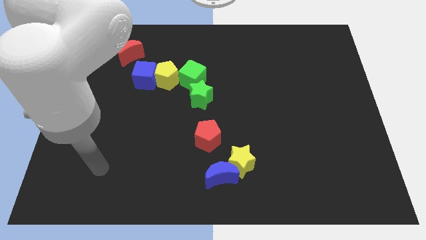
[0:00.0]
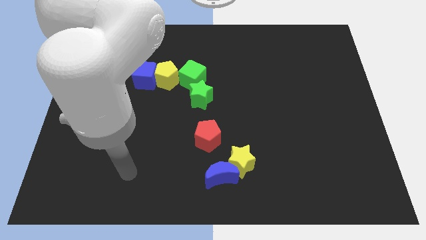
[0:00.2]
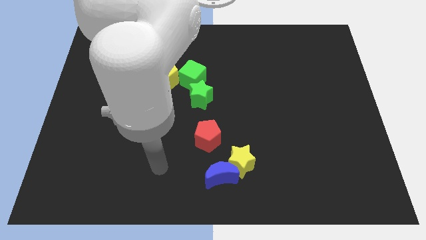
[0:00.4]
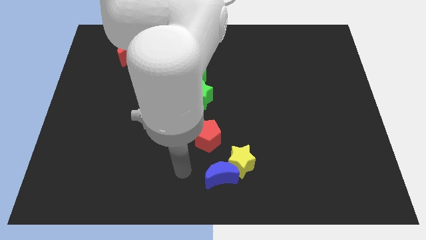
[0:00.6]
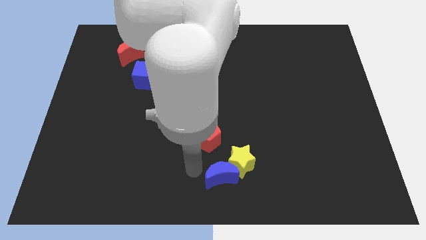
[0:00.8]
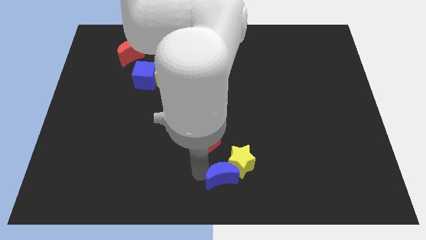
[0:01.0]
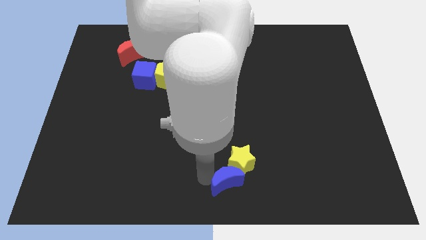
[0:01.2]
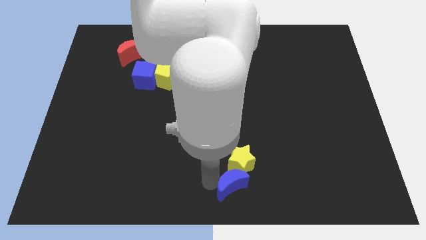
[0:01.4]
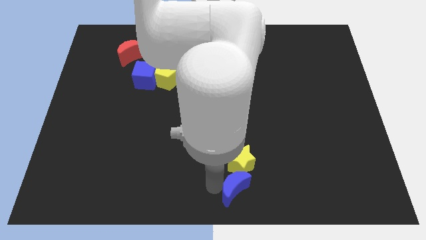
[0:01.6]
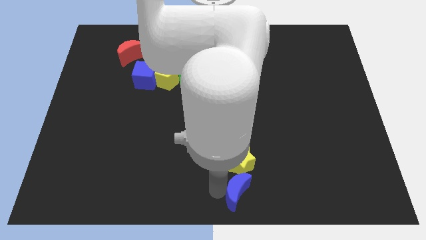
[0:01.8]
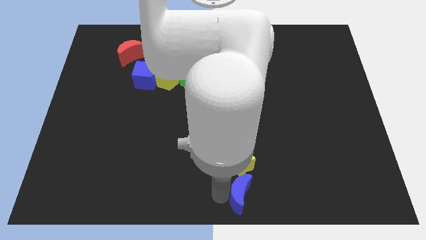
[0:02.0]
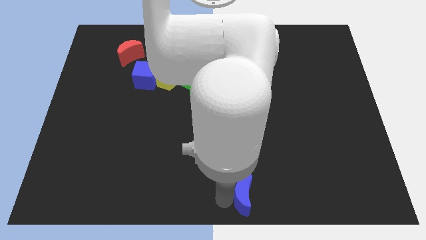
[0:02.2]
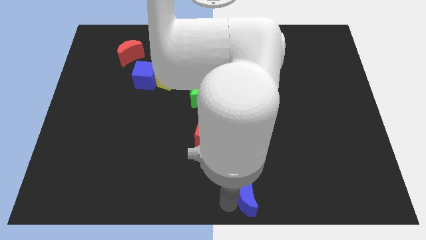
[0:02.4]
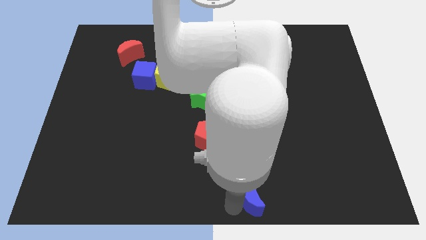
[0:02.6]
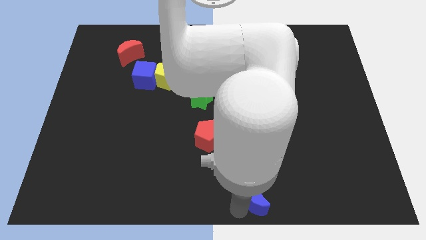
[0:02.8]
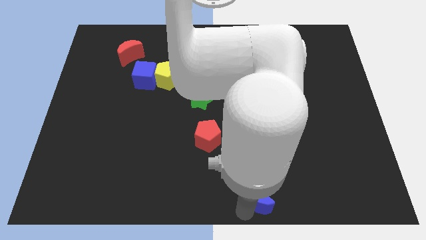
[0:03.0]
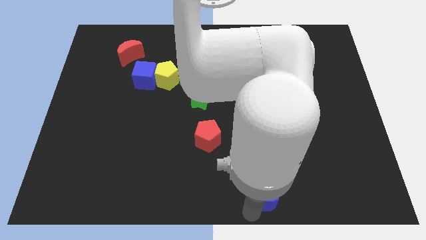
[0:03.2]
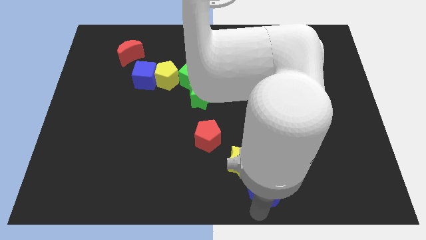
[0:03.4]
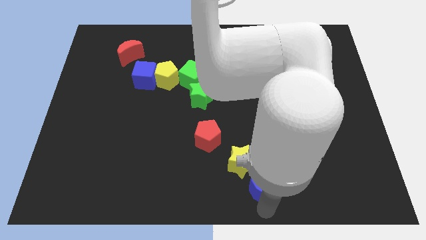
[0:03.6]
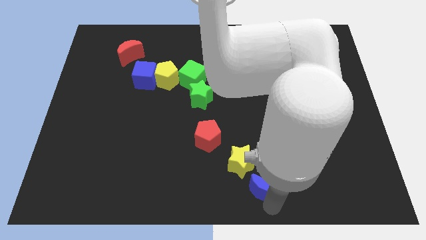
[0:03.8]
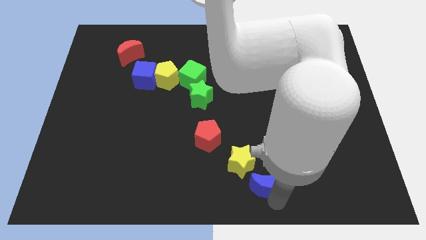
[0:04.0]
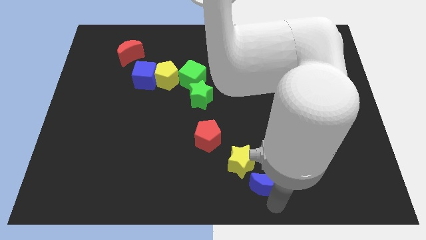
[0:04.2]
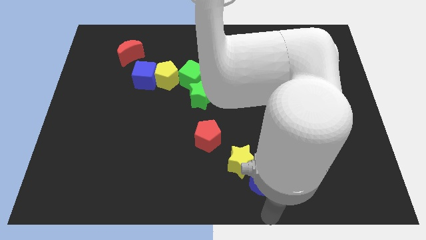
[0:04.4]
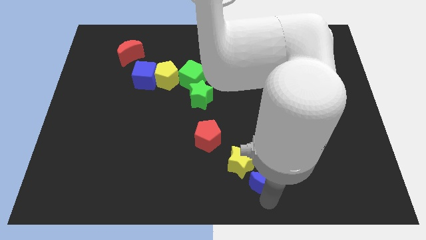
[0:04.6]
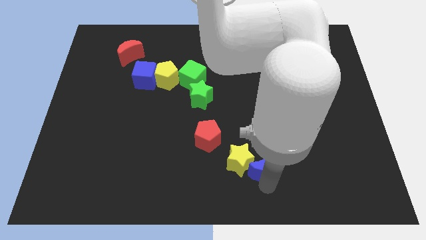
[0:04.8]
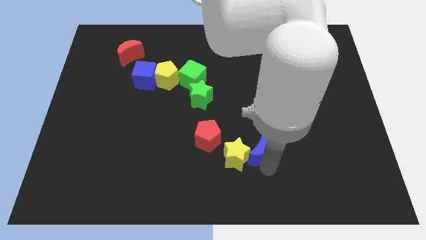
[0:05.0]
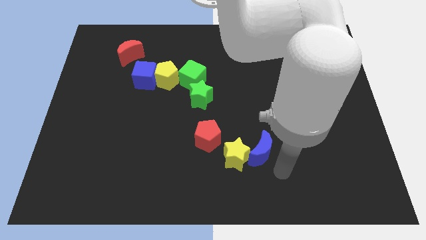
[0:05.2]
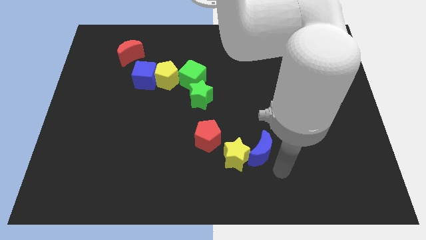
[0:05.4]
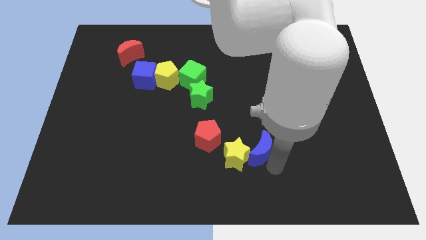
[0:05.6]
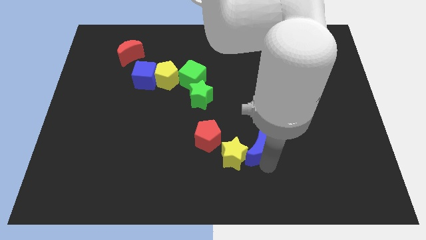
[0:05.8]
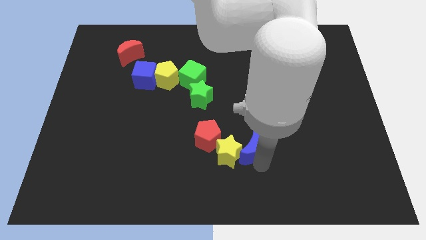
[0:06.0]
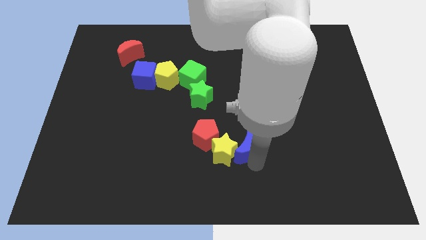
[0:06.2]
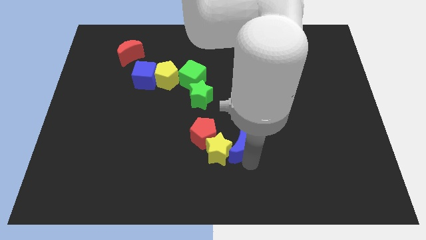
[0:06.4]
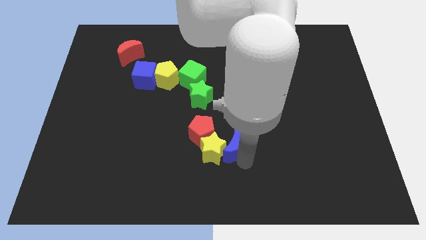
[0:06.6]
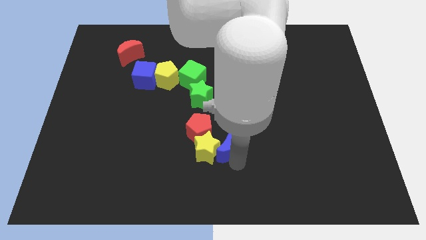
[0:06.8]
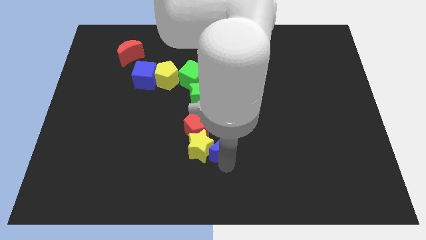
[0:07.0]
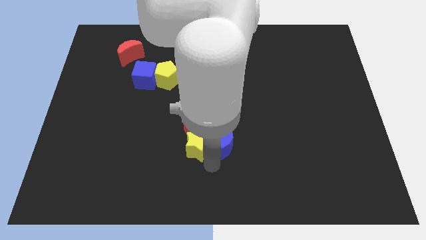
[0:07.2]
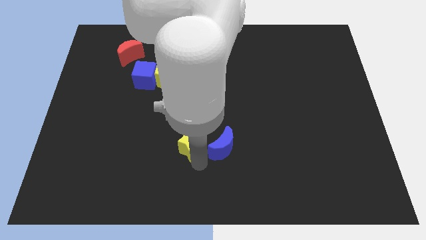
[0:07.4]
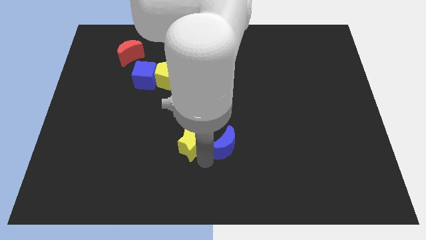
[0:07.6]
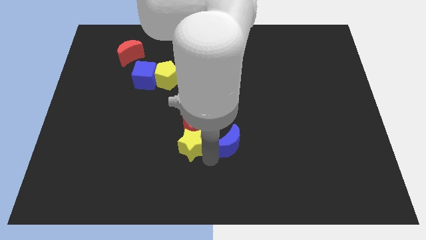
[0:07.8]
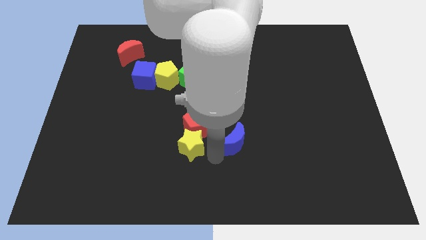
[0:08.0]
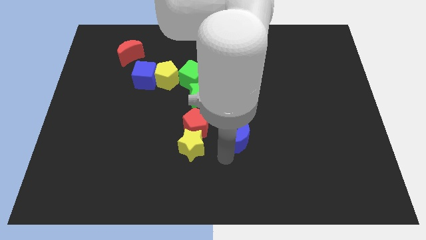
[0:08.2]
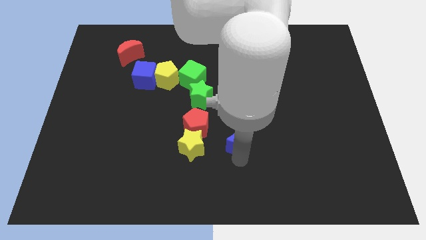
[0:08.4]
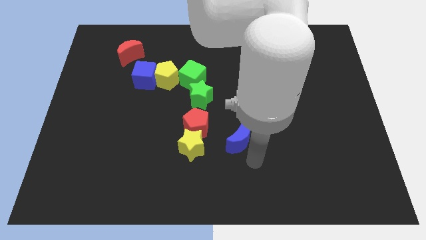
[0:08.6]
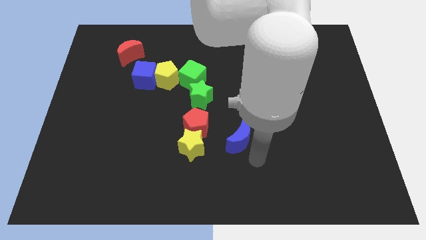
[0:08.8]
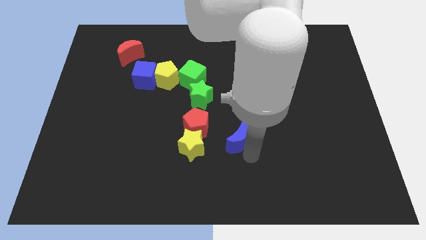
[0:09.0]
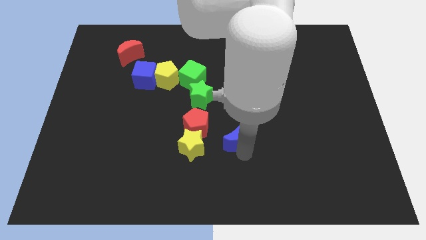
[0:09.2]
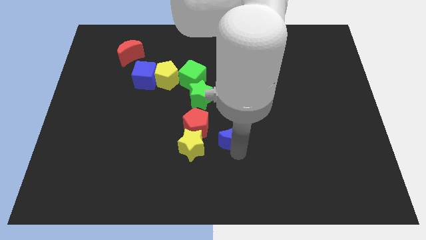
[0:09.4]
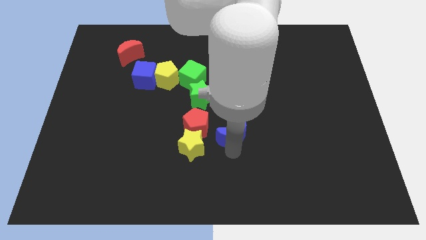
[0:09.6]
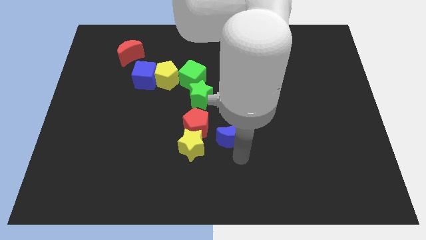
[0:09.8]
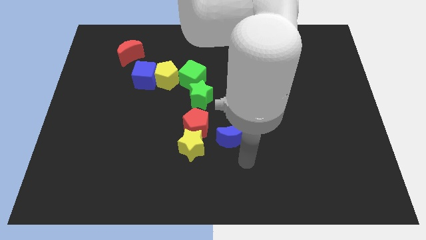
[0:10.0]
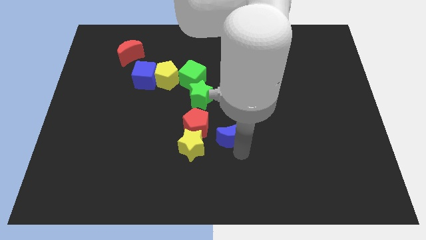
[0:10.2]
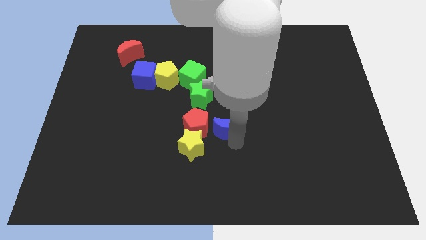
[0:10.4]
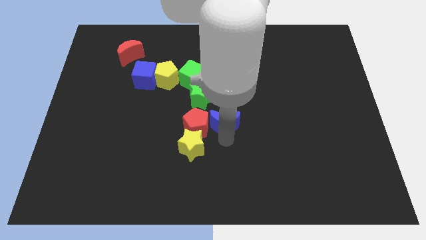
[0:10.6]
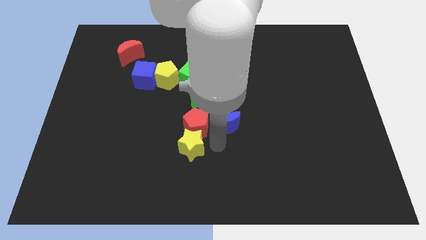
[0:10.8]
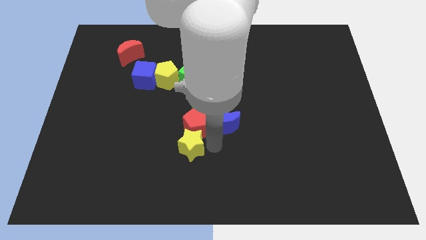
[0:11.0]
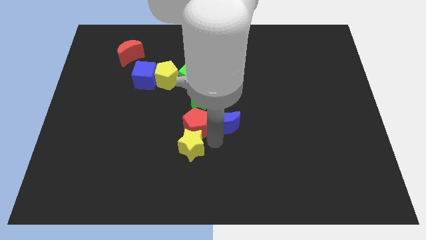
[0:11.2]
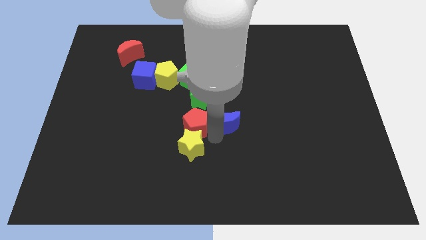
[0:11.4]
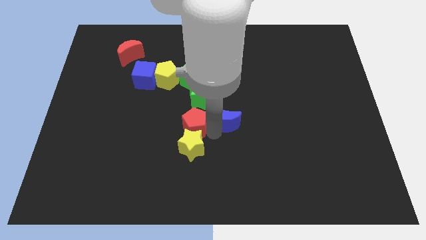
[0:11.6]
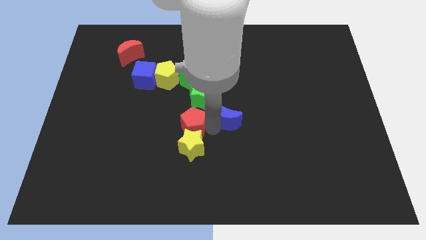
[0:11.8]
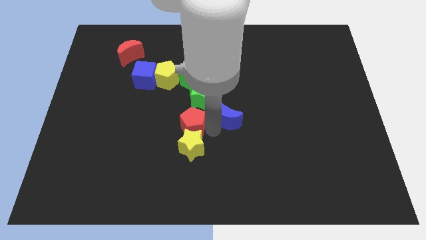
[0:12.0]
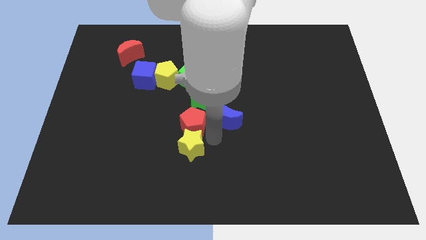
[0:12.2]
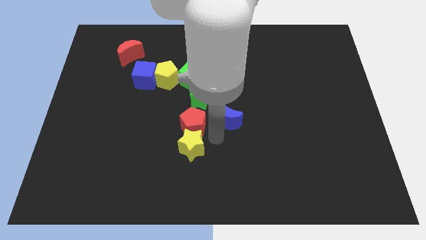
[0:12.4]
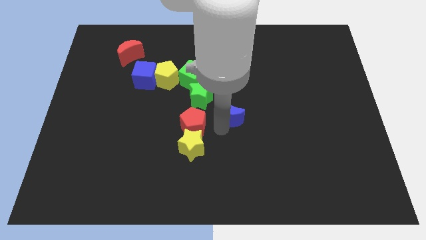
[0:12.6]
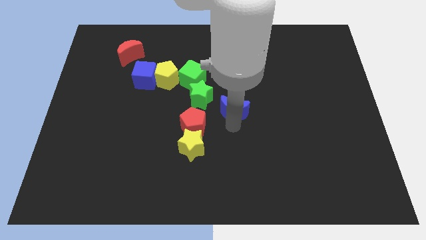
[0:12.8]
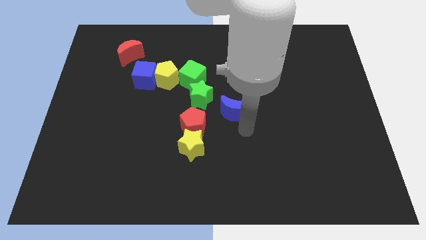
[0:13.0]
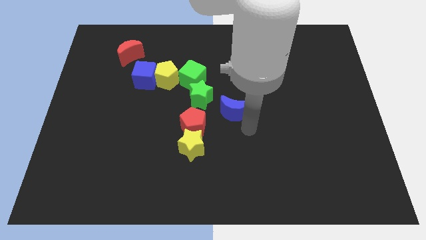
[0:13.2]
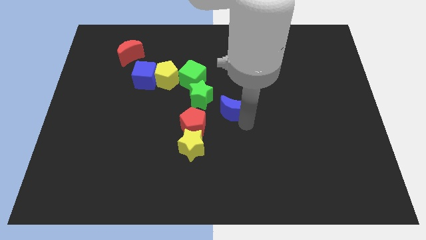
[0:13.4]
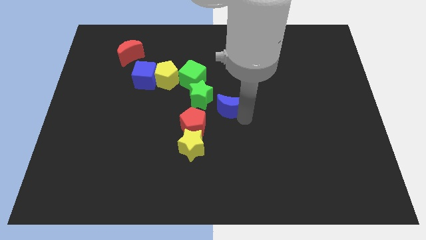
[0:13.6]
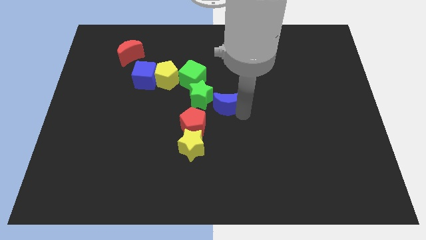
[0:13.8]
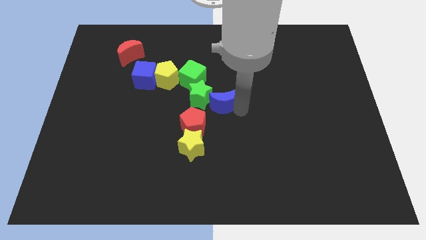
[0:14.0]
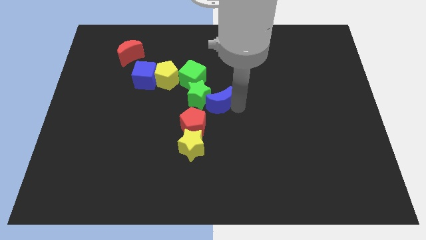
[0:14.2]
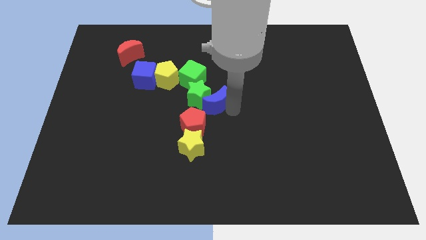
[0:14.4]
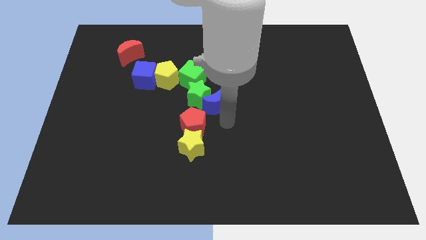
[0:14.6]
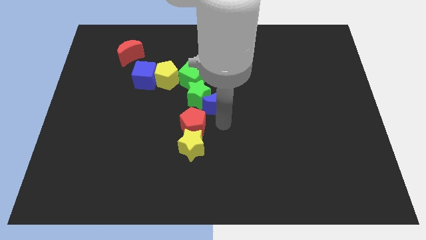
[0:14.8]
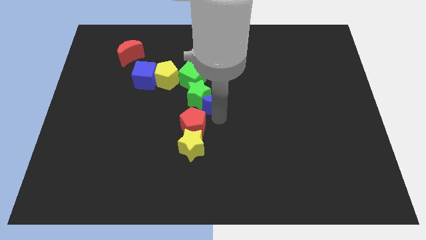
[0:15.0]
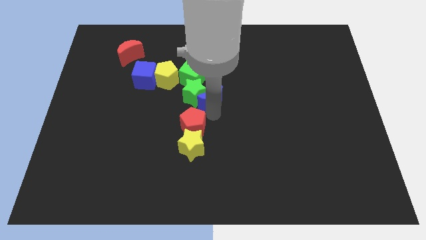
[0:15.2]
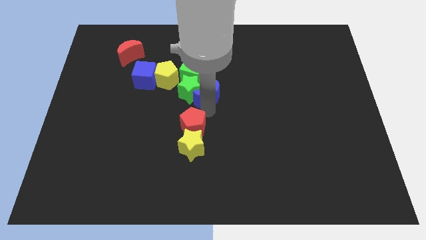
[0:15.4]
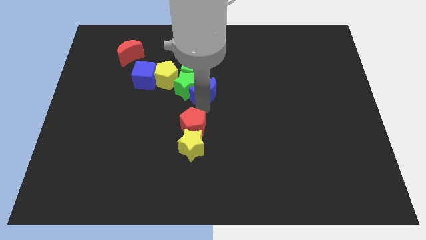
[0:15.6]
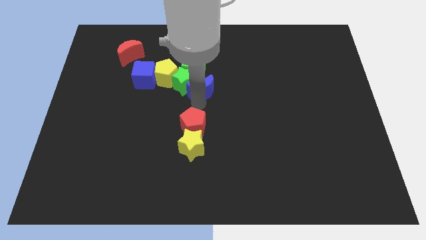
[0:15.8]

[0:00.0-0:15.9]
push the blue moon to the right of the yellow pentagon
